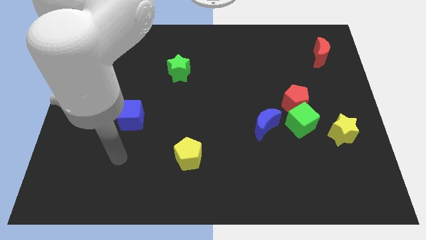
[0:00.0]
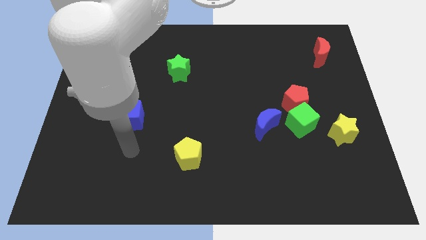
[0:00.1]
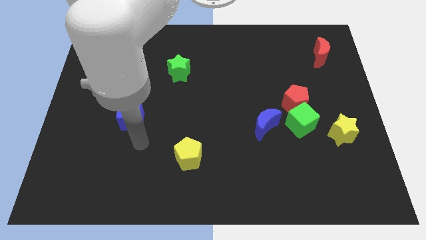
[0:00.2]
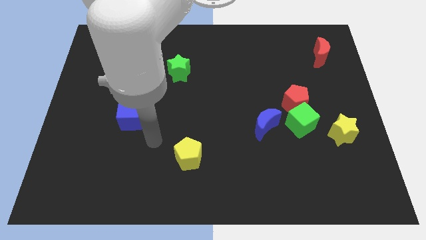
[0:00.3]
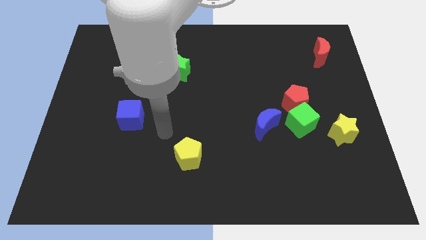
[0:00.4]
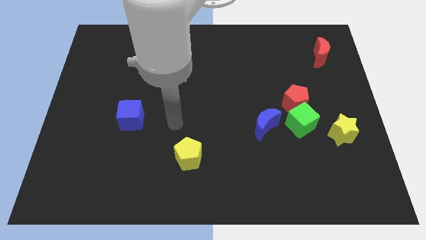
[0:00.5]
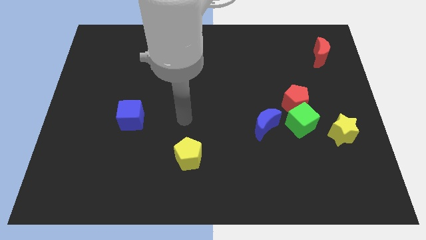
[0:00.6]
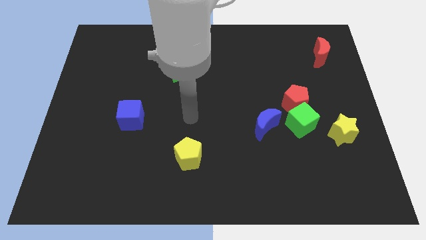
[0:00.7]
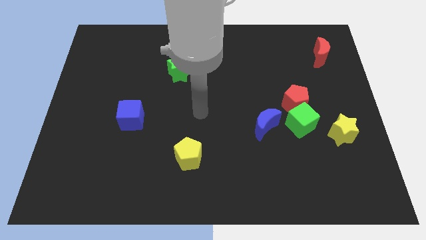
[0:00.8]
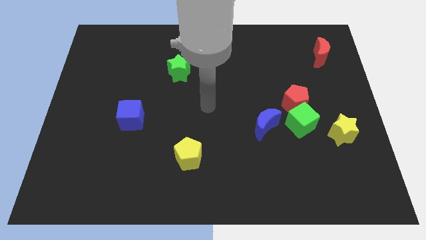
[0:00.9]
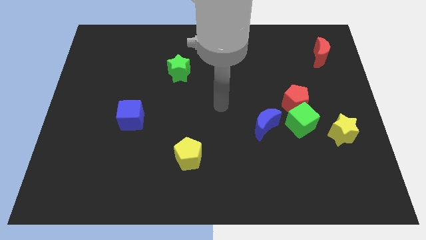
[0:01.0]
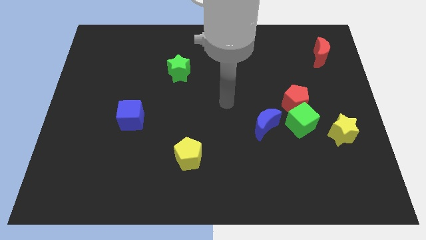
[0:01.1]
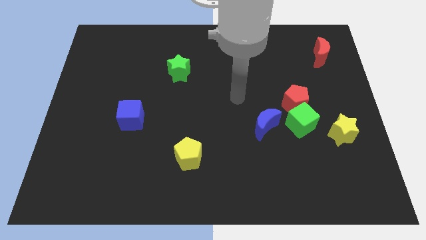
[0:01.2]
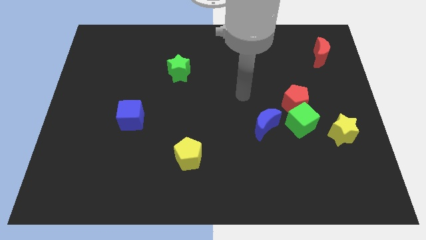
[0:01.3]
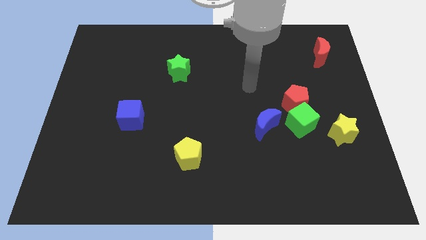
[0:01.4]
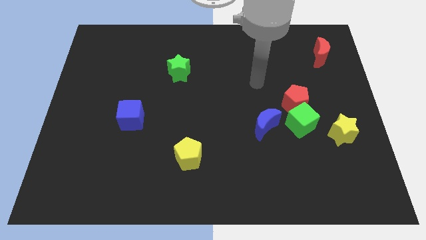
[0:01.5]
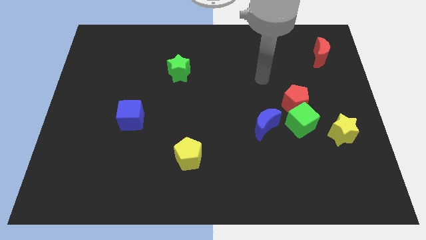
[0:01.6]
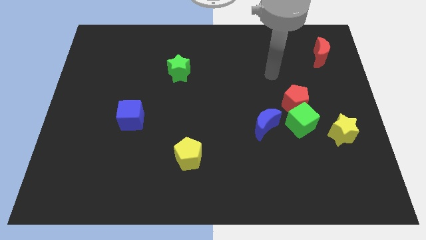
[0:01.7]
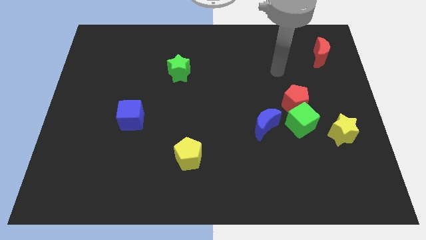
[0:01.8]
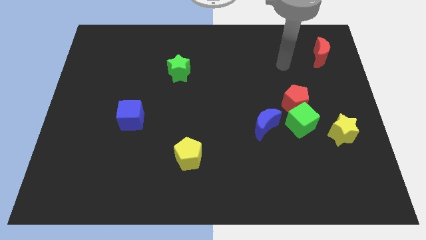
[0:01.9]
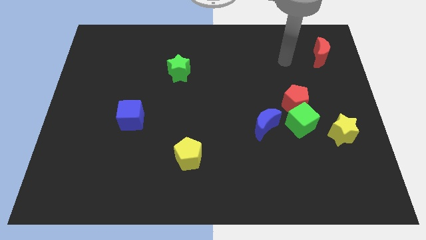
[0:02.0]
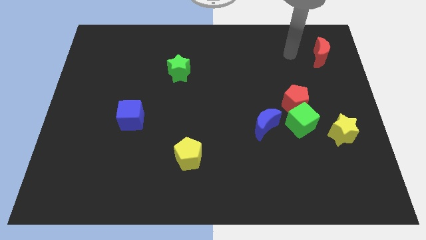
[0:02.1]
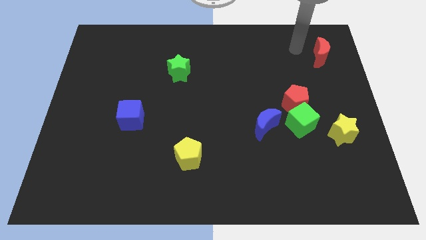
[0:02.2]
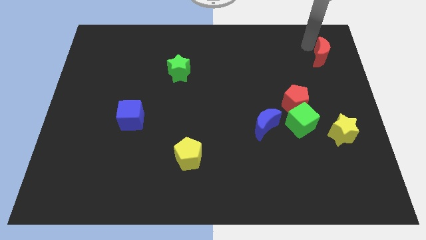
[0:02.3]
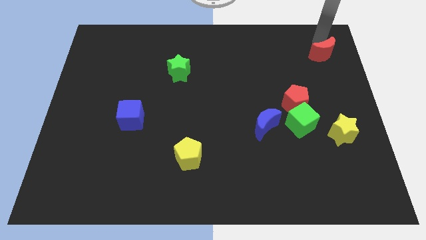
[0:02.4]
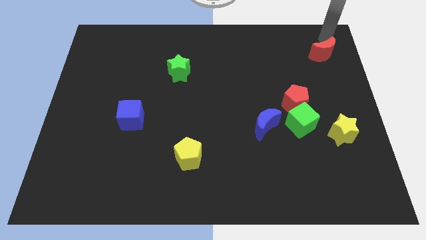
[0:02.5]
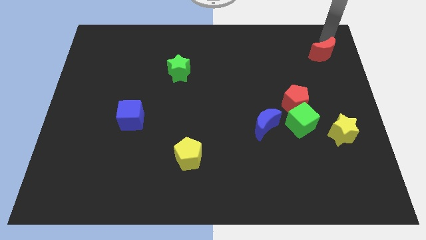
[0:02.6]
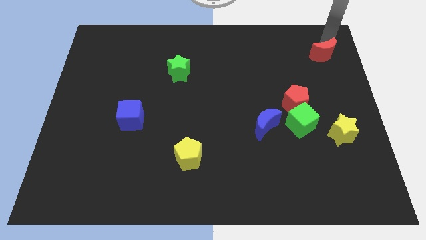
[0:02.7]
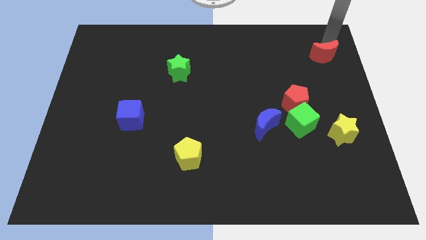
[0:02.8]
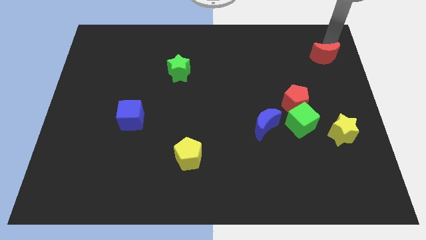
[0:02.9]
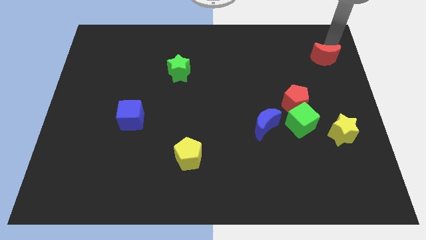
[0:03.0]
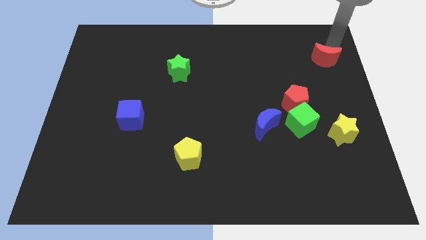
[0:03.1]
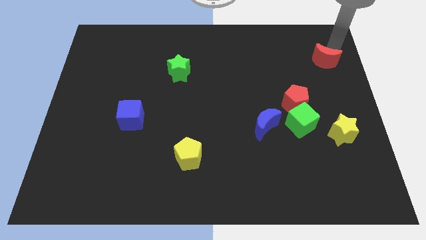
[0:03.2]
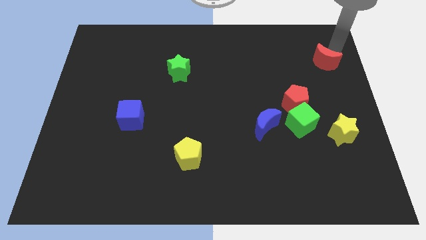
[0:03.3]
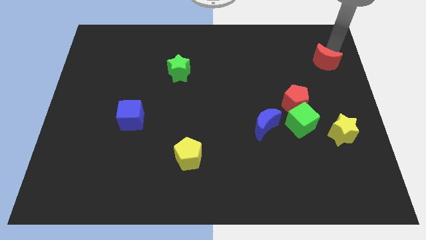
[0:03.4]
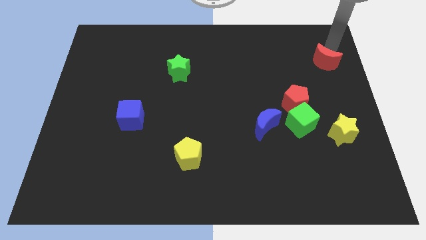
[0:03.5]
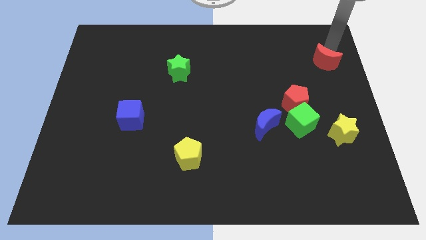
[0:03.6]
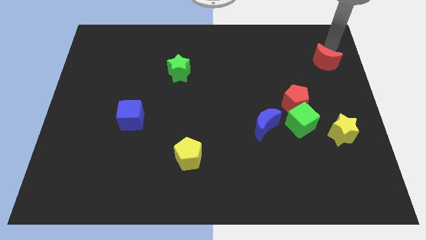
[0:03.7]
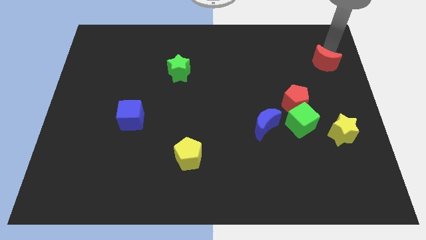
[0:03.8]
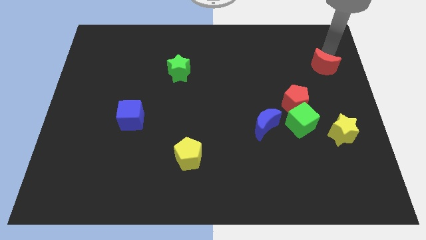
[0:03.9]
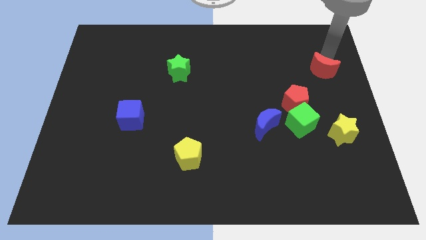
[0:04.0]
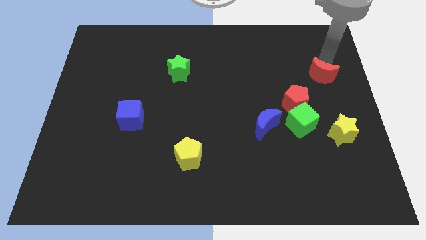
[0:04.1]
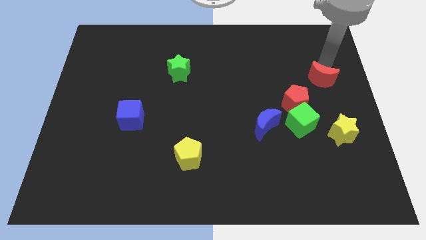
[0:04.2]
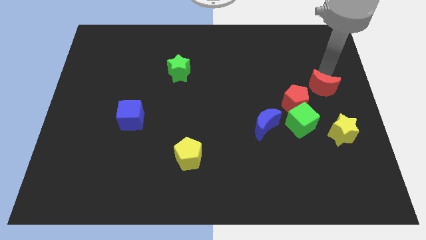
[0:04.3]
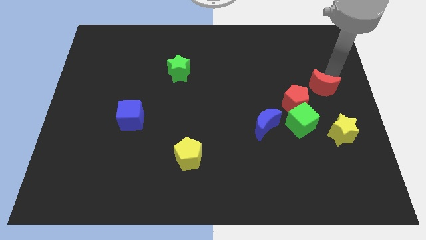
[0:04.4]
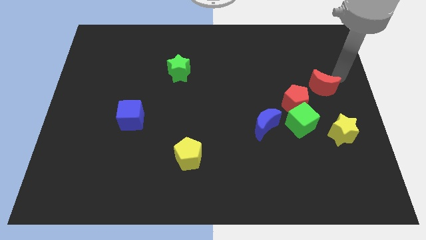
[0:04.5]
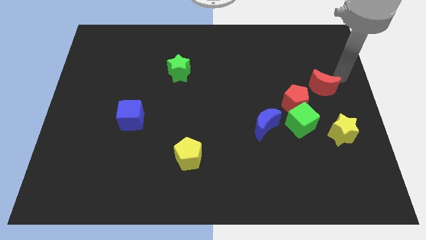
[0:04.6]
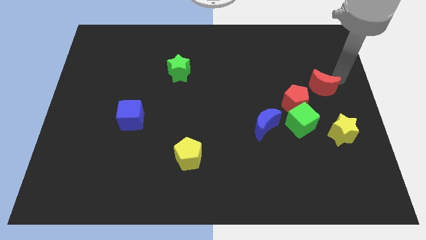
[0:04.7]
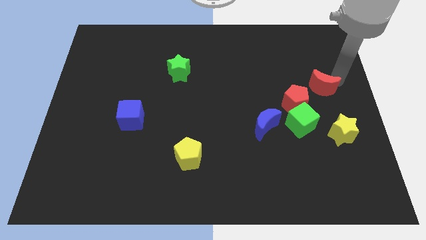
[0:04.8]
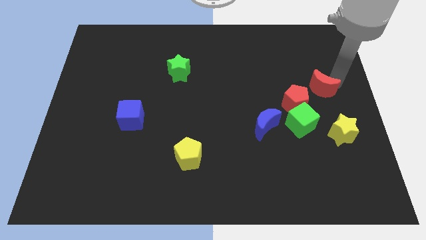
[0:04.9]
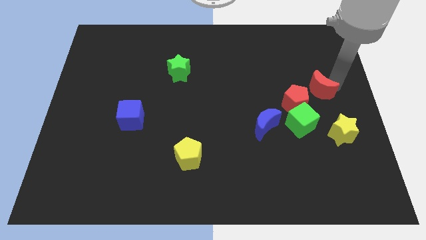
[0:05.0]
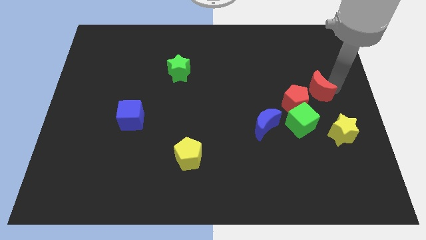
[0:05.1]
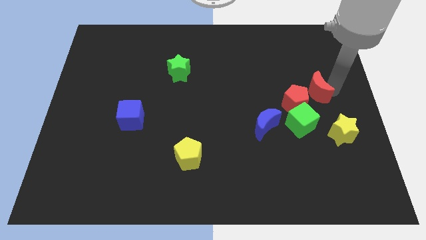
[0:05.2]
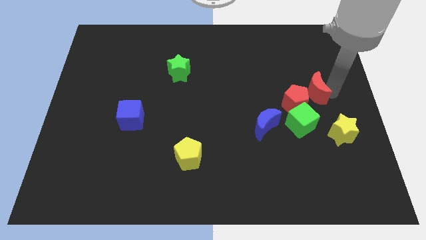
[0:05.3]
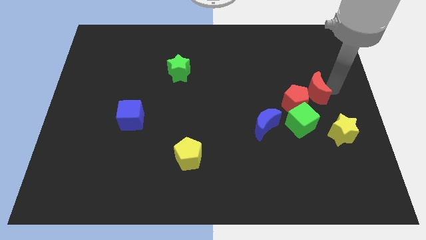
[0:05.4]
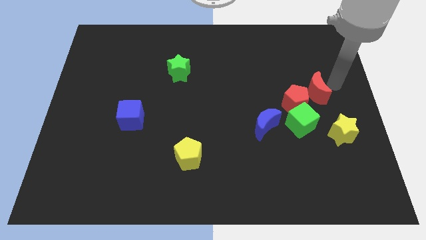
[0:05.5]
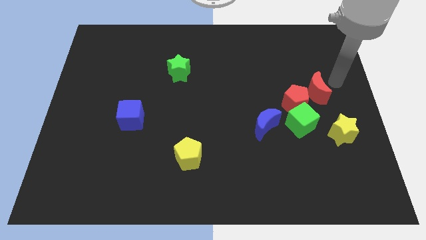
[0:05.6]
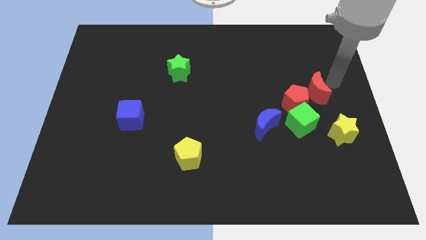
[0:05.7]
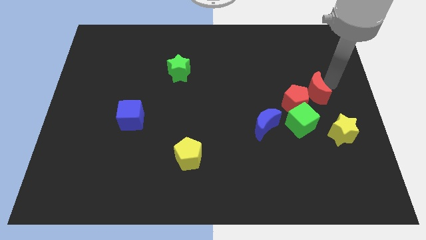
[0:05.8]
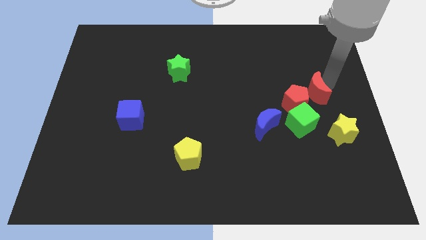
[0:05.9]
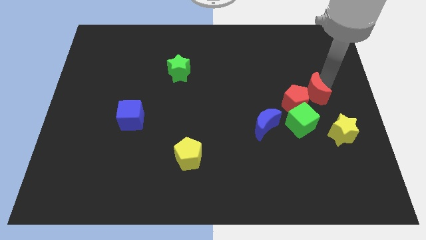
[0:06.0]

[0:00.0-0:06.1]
put the red moon next to the red pentagon

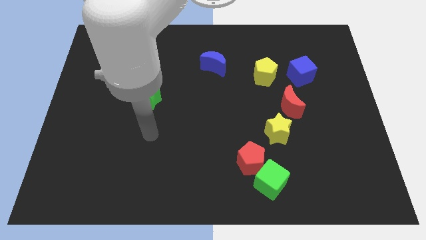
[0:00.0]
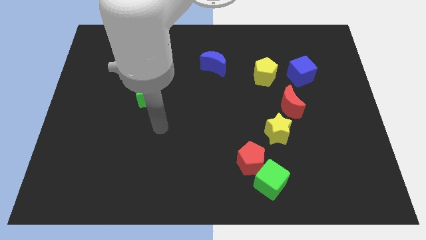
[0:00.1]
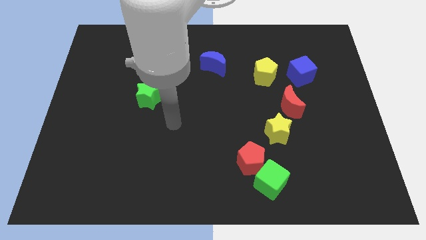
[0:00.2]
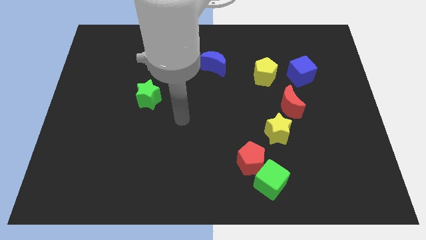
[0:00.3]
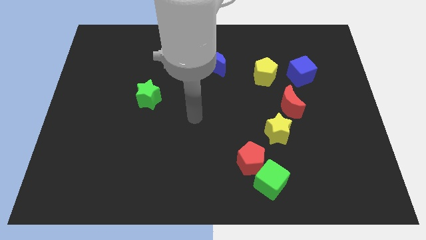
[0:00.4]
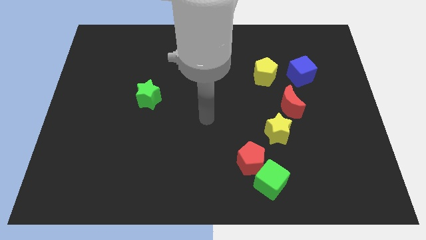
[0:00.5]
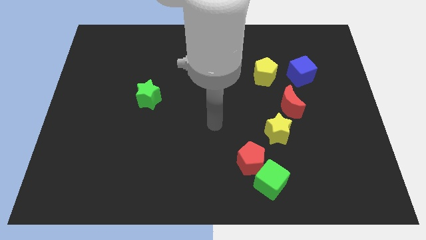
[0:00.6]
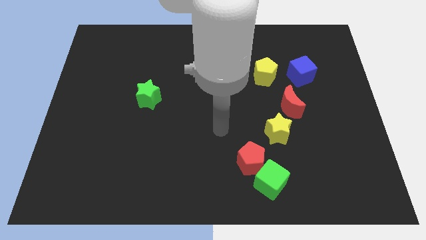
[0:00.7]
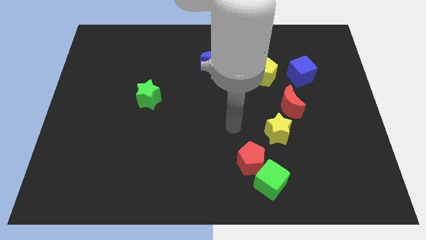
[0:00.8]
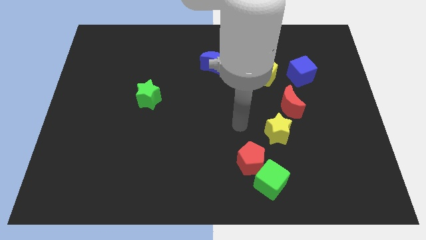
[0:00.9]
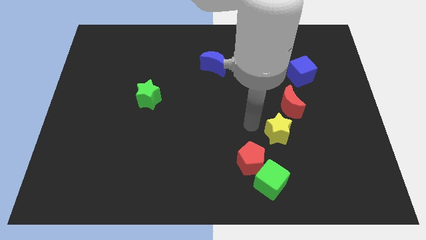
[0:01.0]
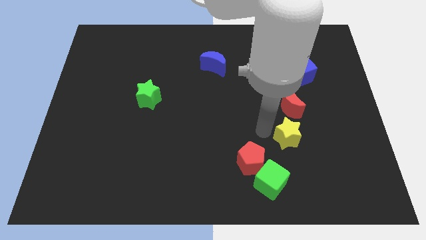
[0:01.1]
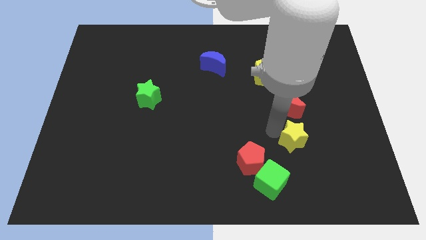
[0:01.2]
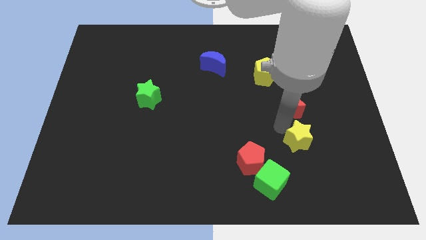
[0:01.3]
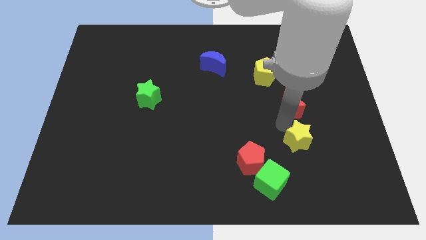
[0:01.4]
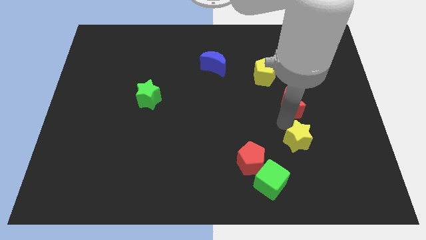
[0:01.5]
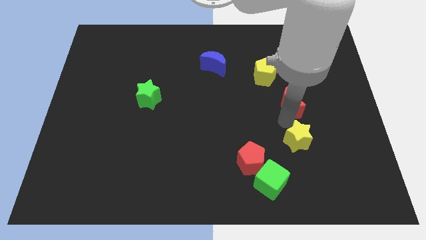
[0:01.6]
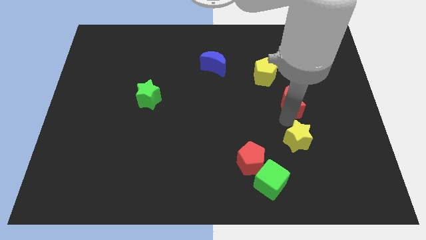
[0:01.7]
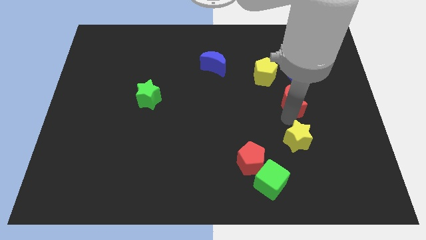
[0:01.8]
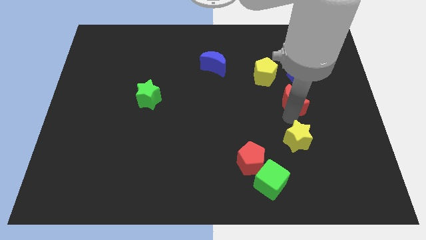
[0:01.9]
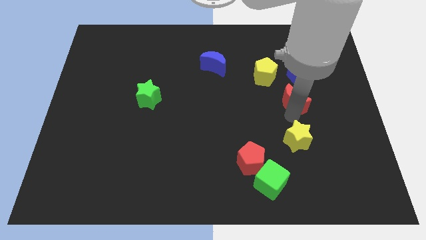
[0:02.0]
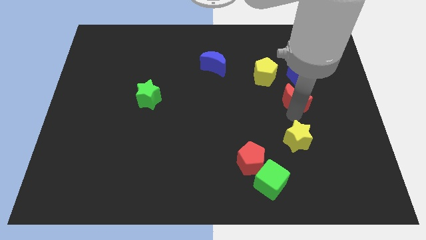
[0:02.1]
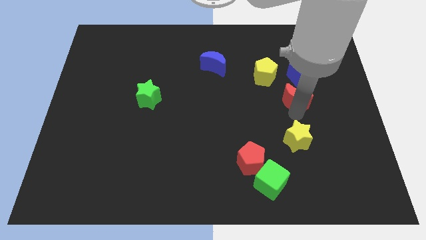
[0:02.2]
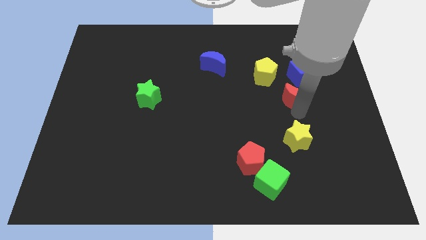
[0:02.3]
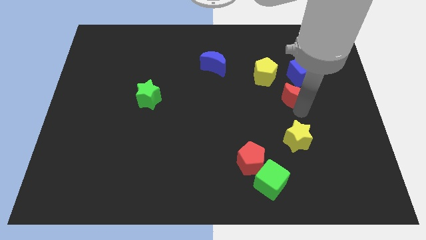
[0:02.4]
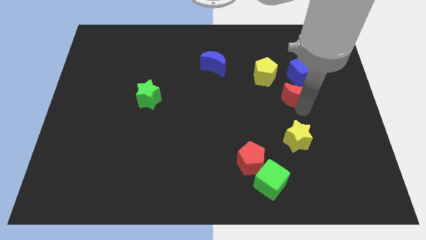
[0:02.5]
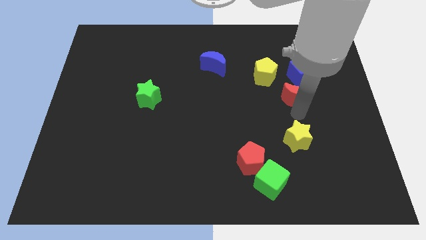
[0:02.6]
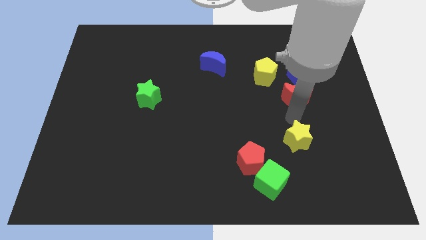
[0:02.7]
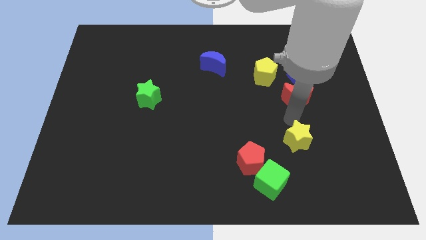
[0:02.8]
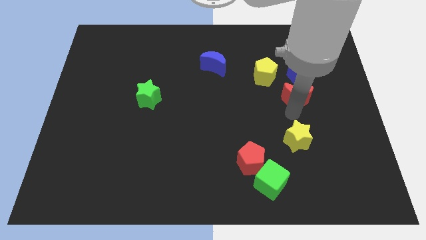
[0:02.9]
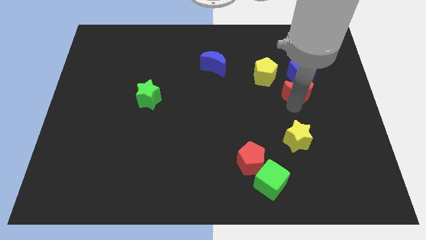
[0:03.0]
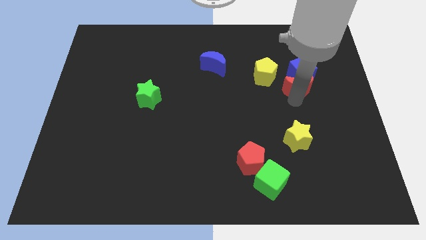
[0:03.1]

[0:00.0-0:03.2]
slide the red moon towards the blue cube
